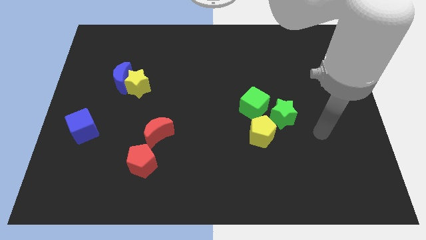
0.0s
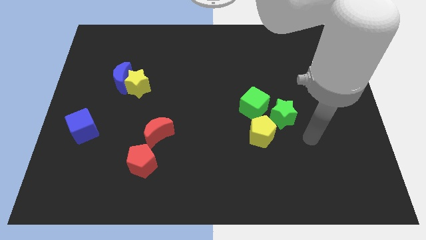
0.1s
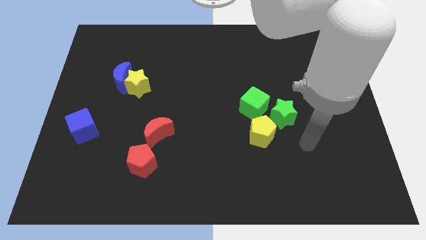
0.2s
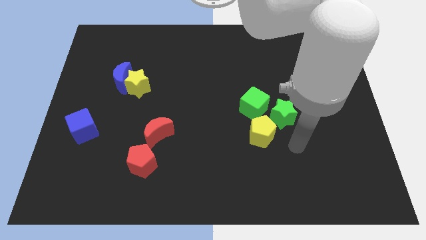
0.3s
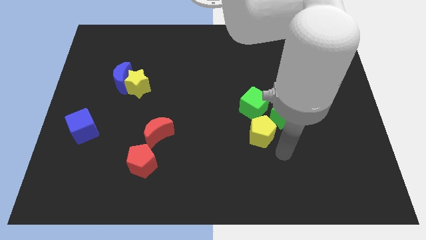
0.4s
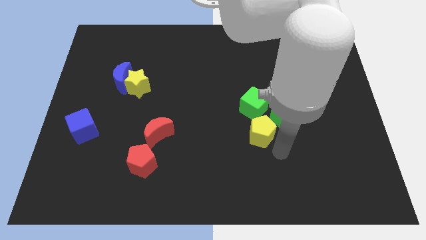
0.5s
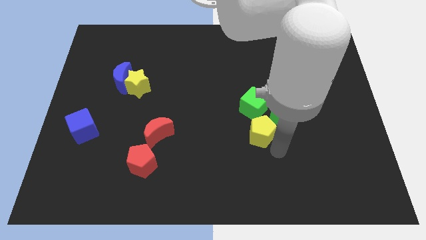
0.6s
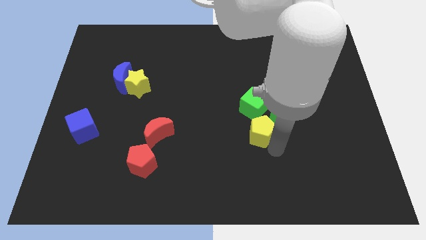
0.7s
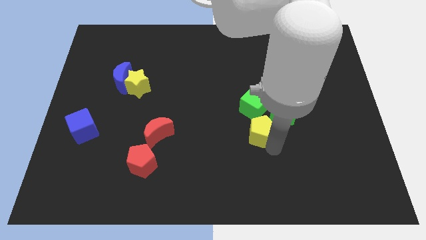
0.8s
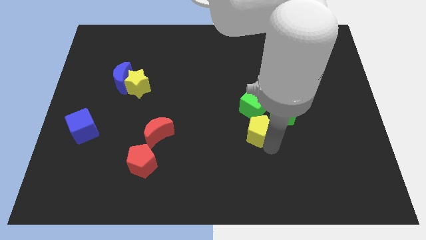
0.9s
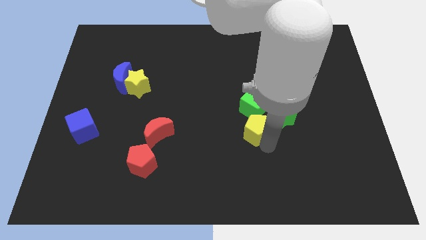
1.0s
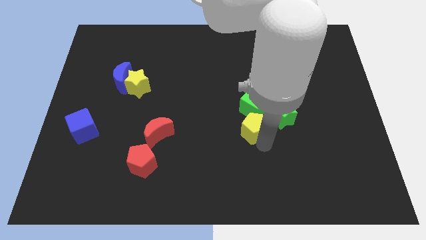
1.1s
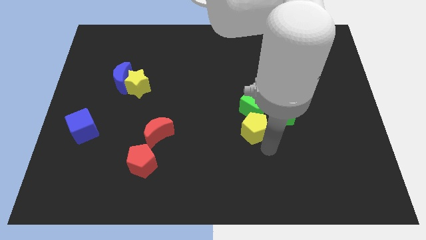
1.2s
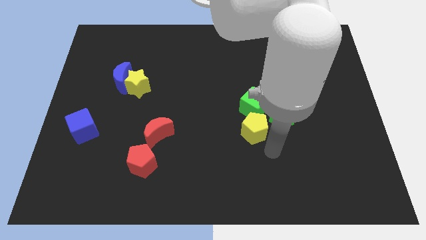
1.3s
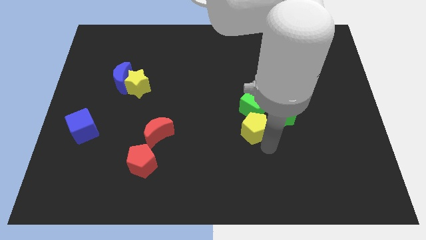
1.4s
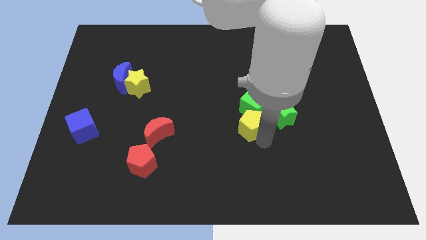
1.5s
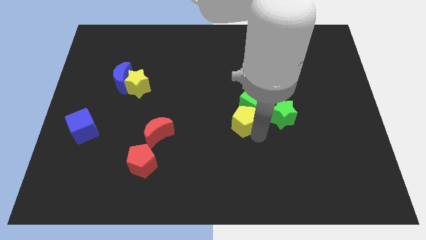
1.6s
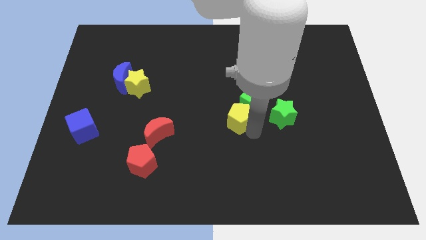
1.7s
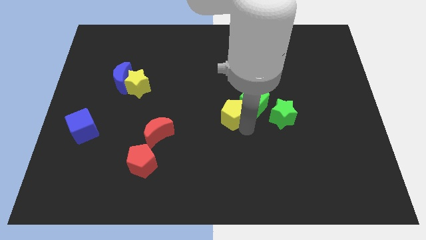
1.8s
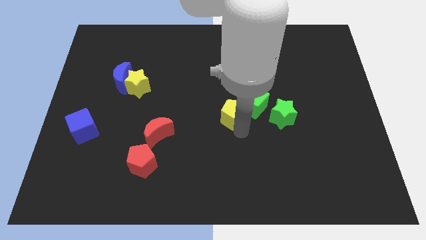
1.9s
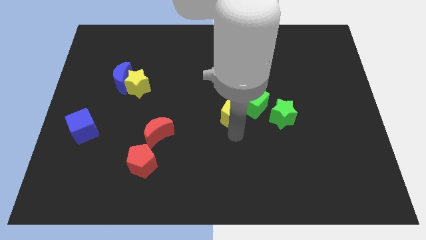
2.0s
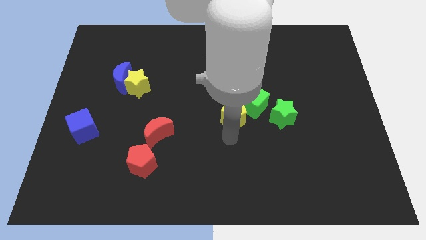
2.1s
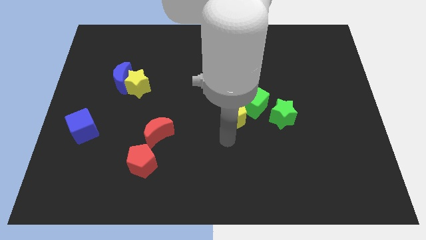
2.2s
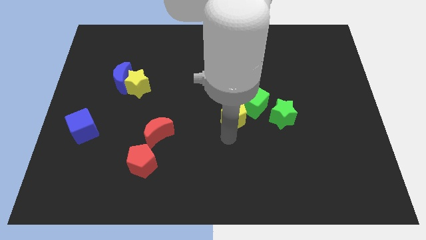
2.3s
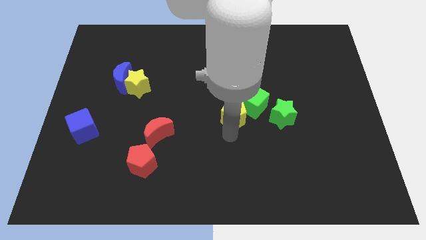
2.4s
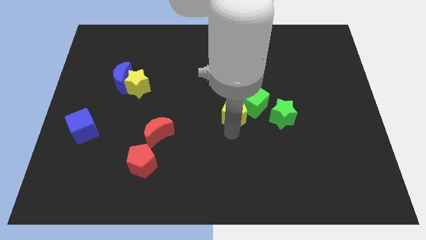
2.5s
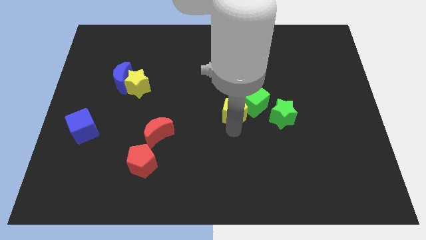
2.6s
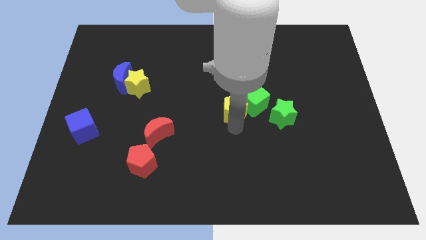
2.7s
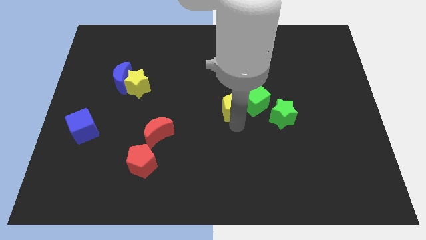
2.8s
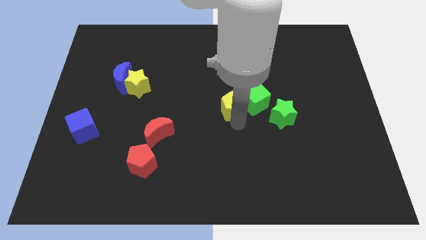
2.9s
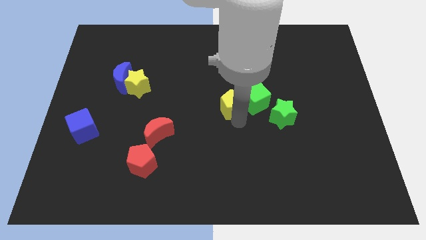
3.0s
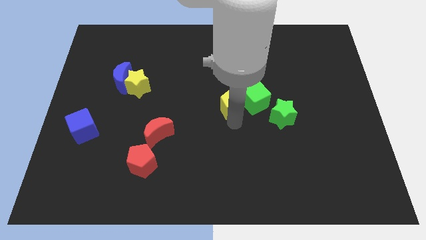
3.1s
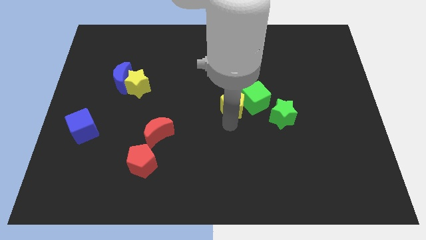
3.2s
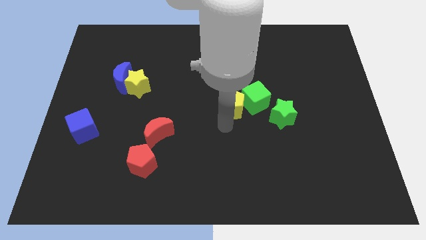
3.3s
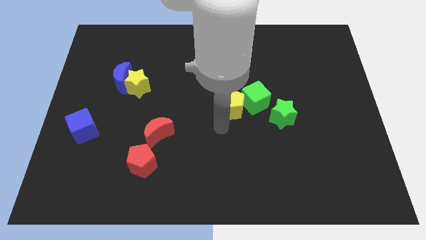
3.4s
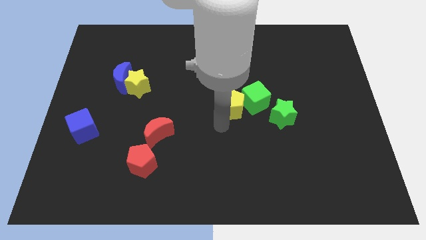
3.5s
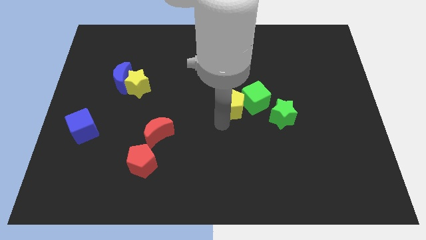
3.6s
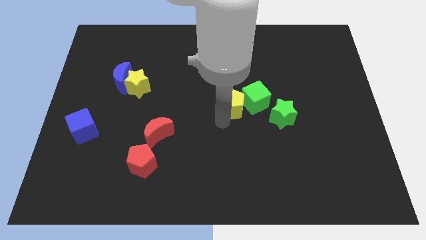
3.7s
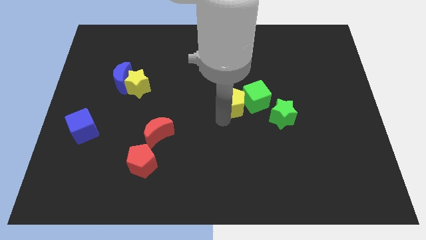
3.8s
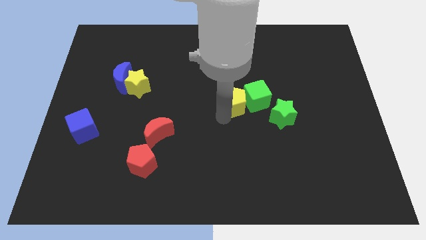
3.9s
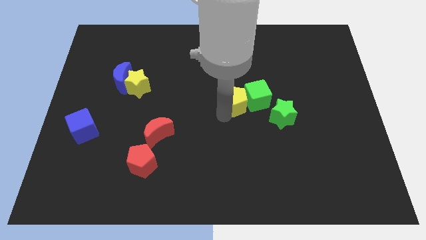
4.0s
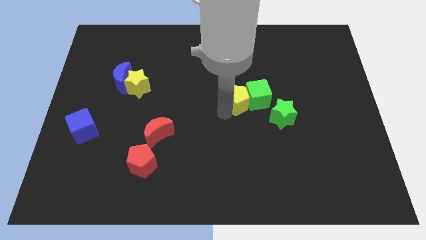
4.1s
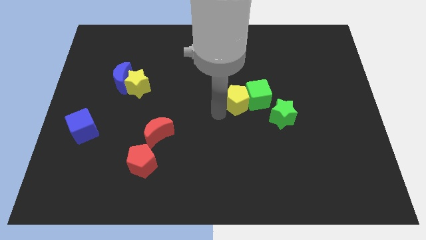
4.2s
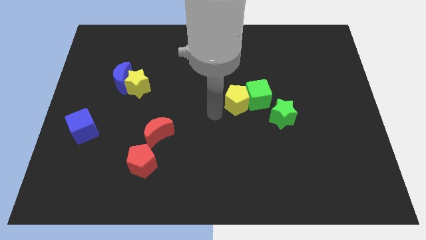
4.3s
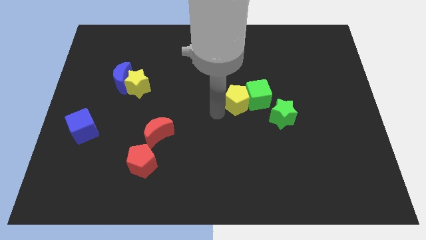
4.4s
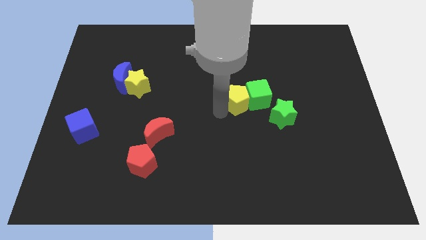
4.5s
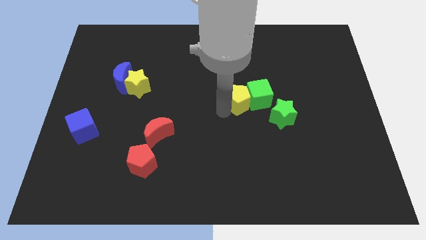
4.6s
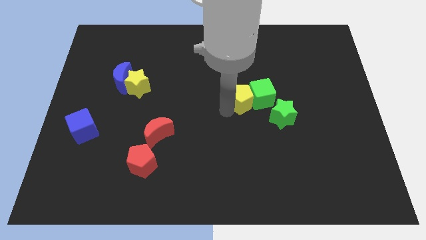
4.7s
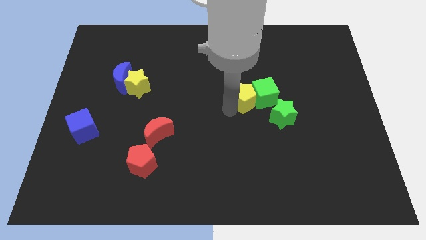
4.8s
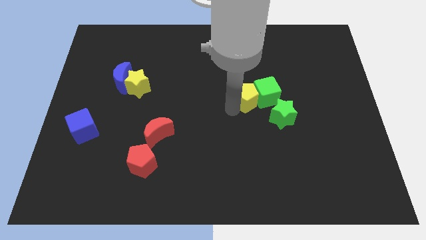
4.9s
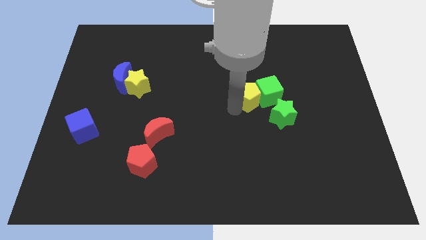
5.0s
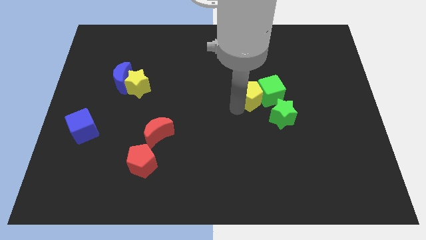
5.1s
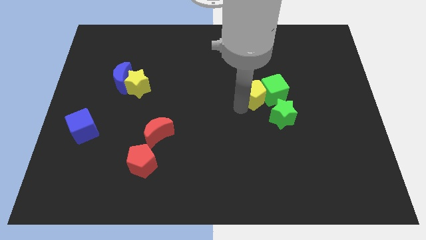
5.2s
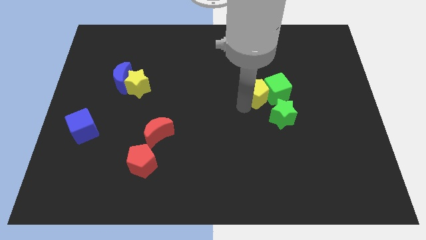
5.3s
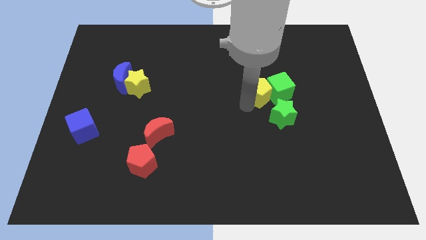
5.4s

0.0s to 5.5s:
put the yellow pentagon to the top side of the green star

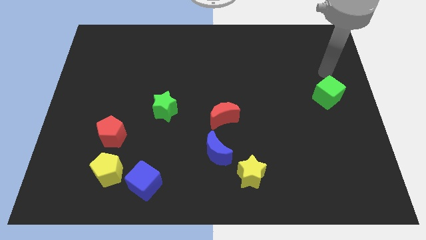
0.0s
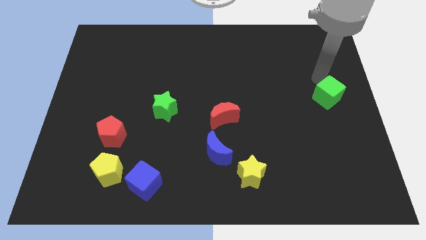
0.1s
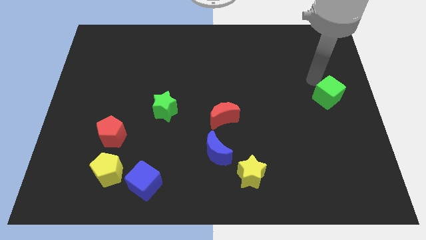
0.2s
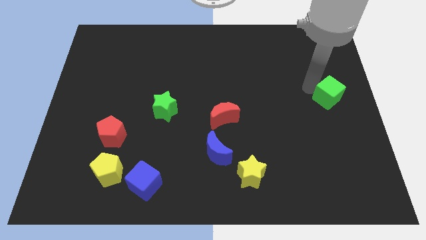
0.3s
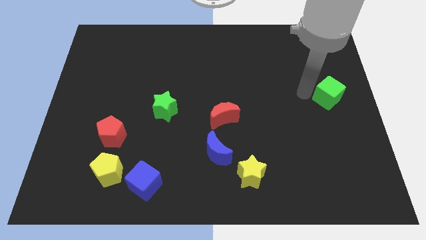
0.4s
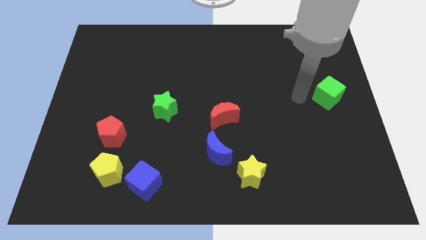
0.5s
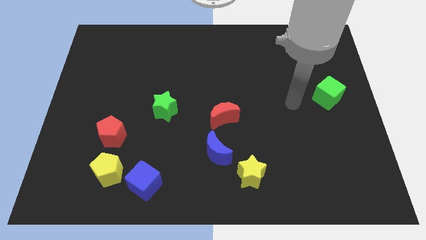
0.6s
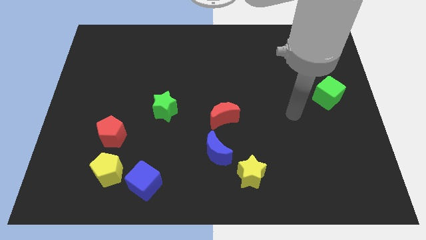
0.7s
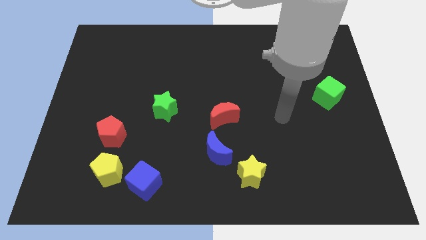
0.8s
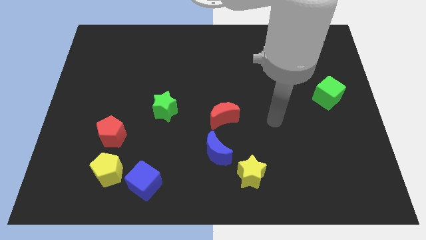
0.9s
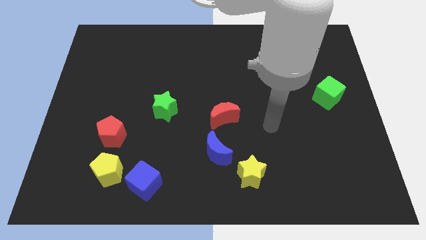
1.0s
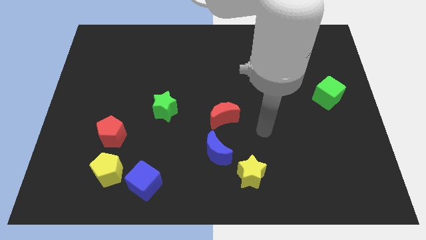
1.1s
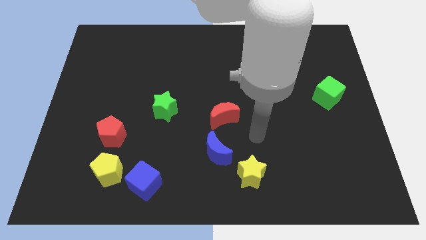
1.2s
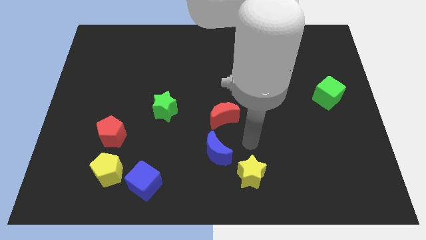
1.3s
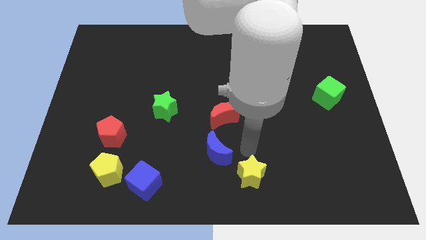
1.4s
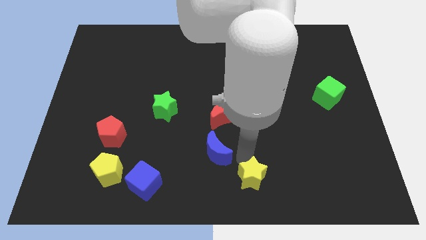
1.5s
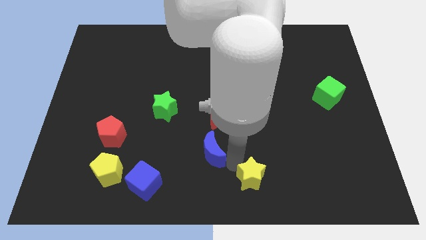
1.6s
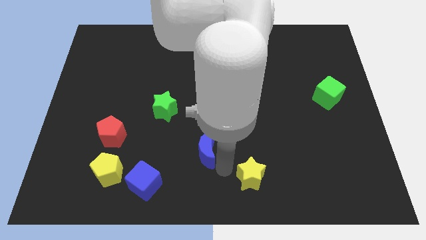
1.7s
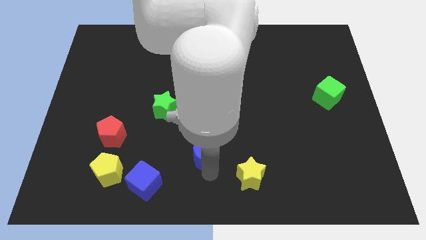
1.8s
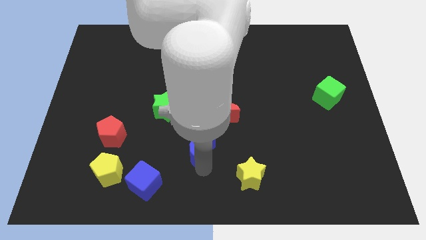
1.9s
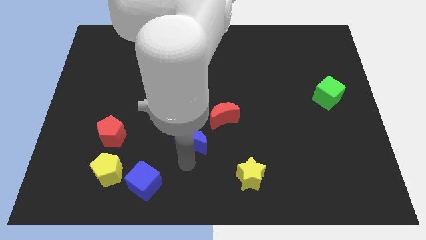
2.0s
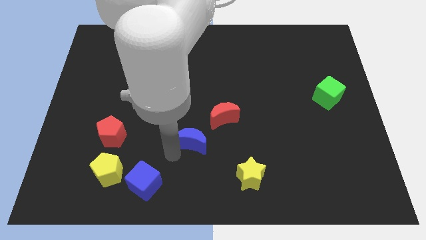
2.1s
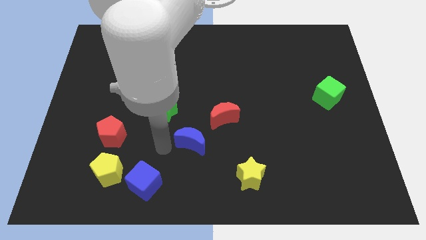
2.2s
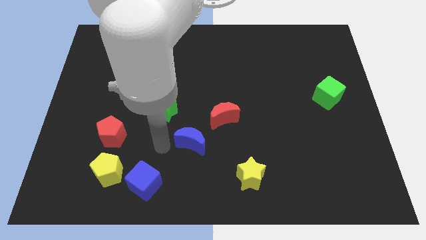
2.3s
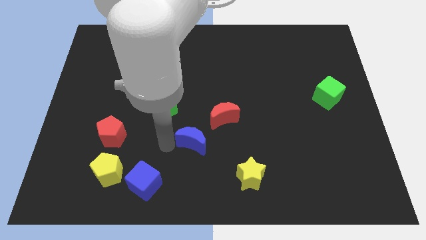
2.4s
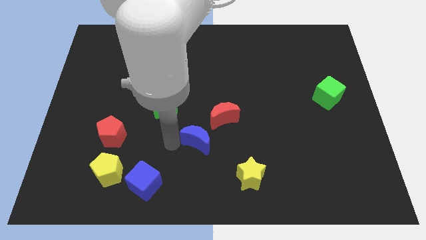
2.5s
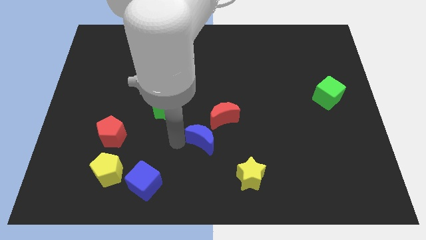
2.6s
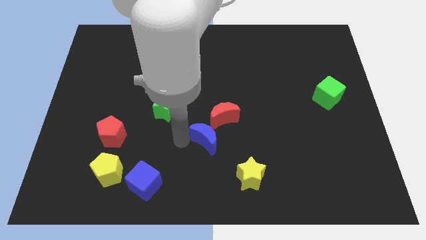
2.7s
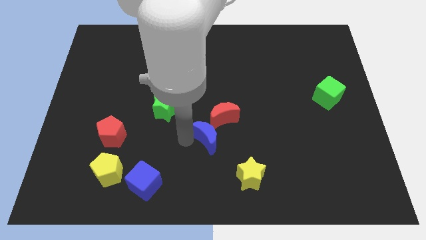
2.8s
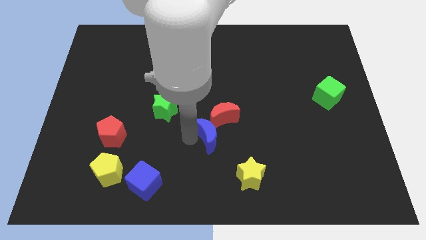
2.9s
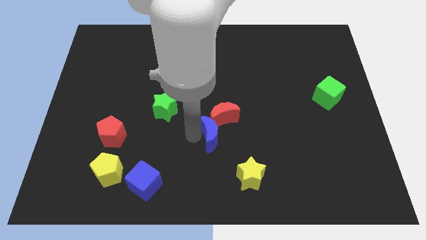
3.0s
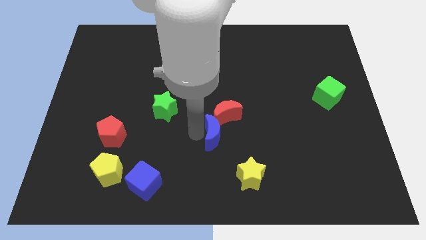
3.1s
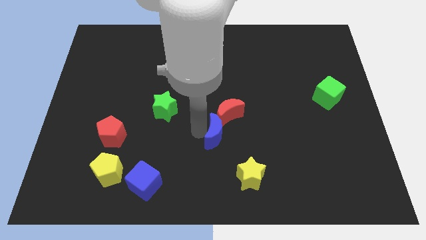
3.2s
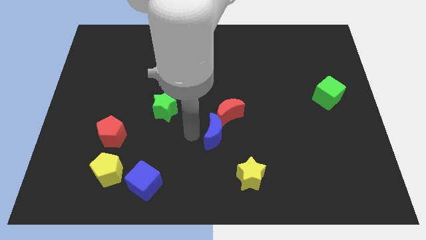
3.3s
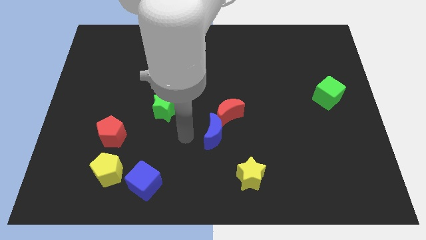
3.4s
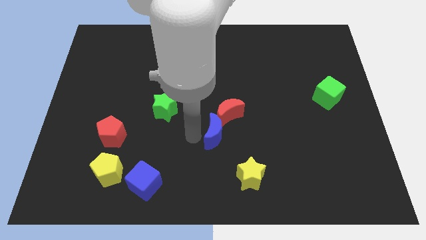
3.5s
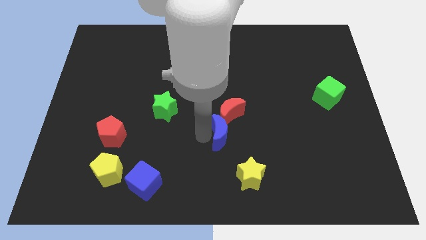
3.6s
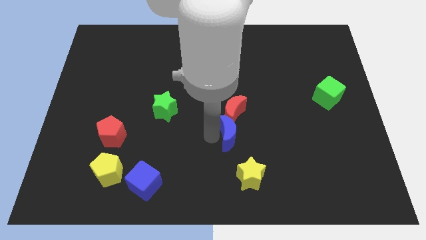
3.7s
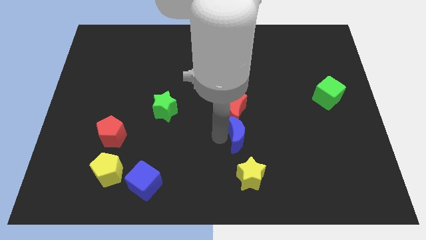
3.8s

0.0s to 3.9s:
put the blue moon diagonally down and to the right of the red moon
